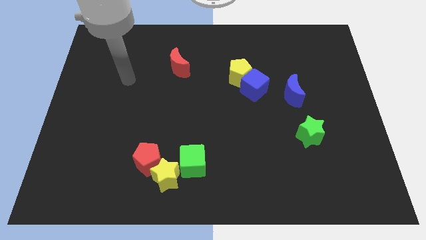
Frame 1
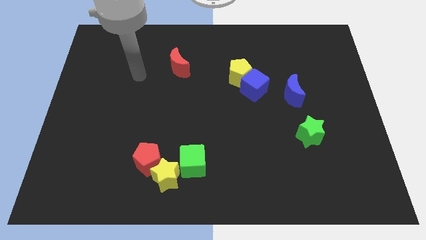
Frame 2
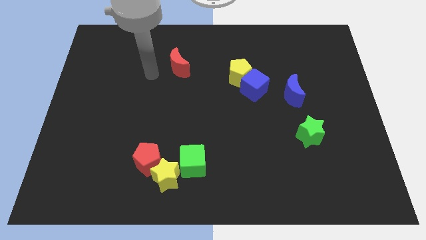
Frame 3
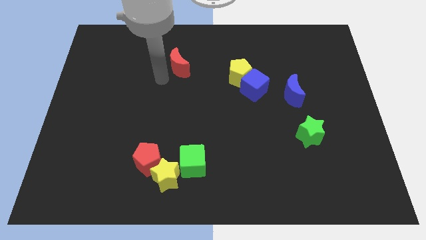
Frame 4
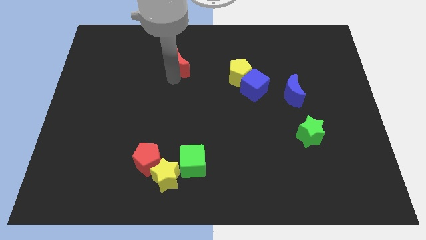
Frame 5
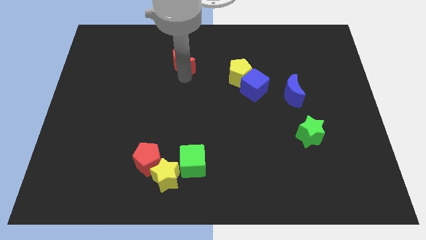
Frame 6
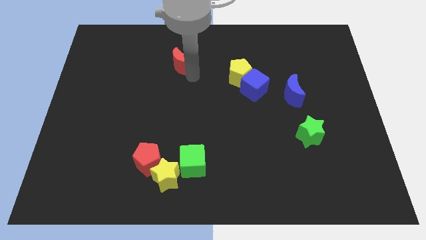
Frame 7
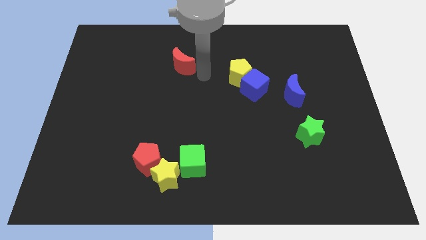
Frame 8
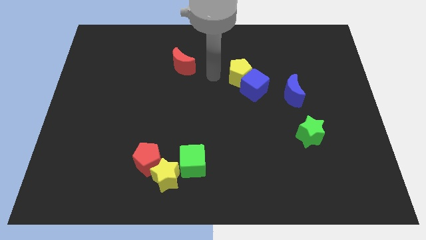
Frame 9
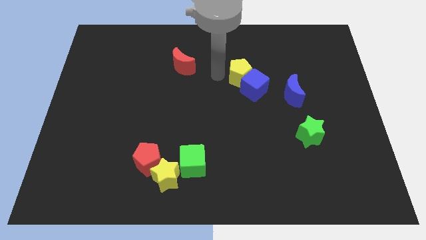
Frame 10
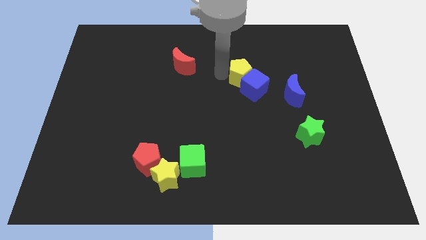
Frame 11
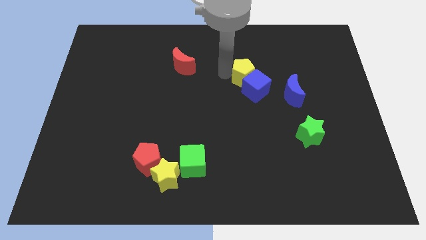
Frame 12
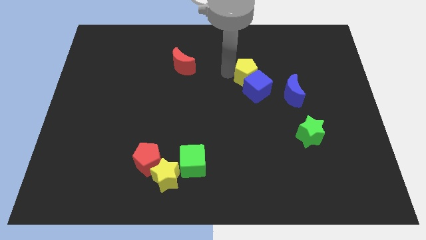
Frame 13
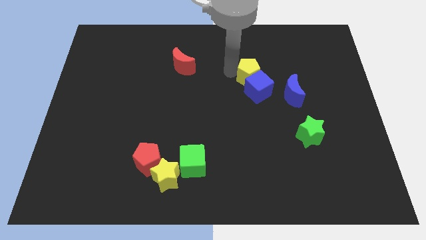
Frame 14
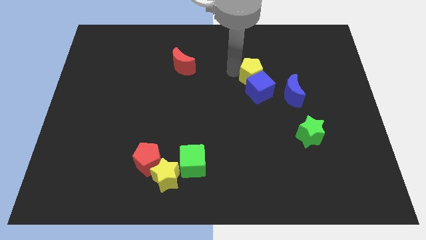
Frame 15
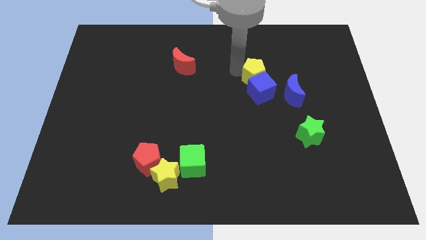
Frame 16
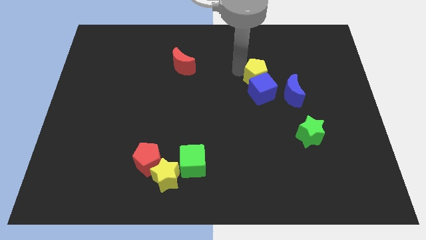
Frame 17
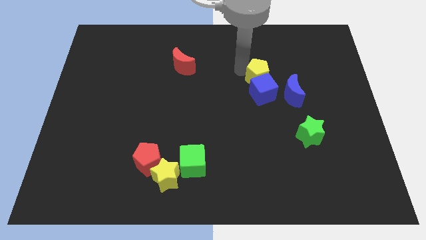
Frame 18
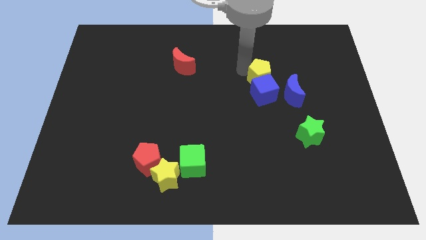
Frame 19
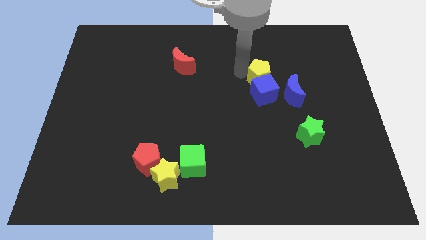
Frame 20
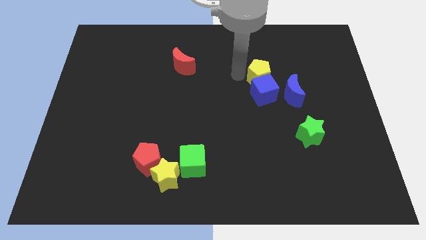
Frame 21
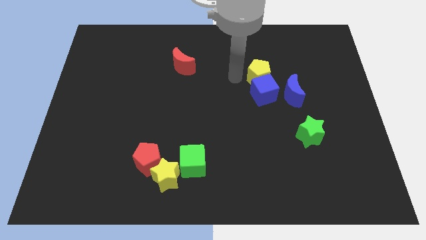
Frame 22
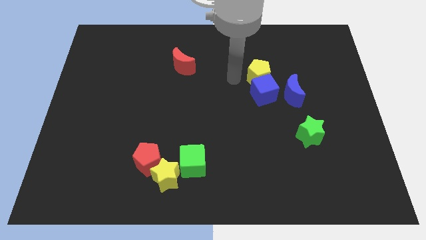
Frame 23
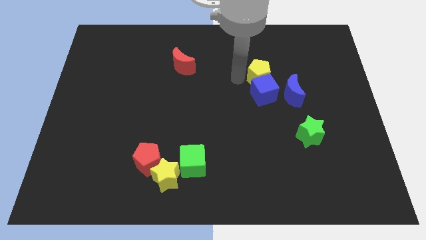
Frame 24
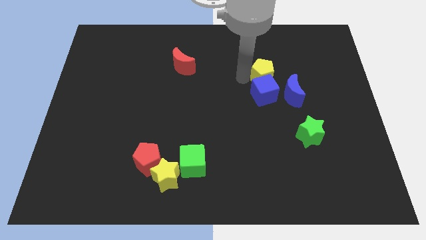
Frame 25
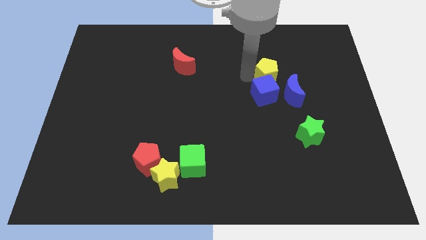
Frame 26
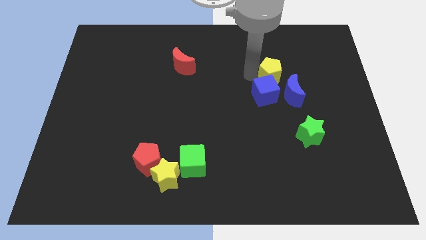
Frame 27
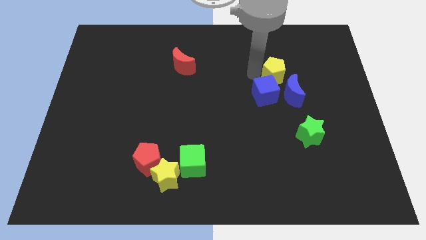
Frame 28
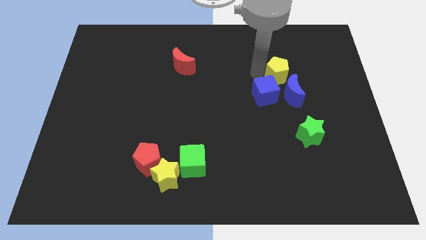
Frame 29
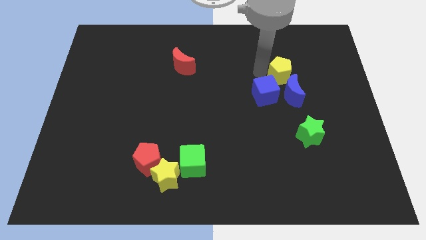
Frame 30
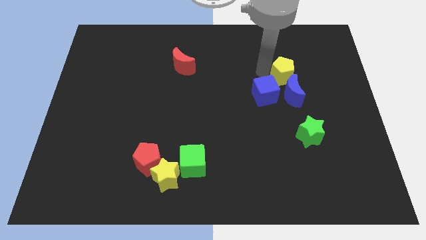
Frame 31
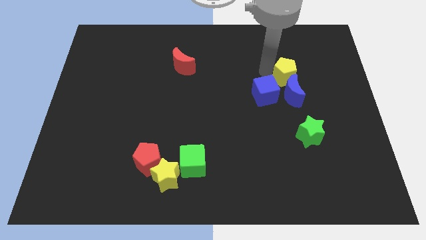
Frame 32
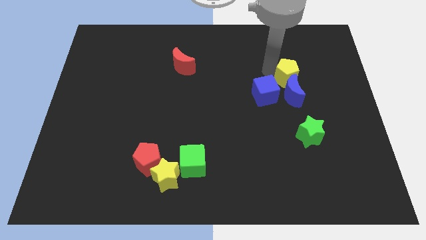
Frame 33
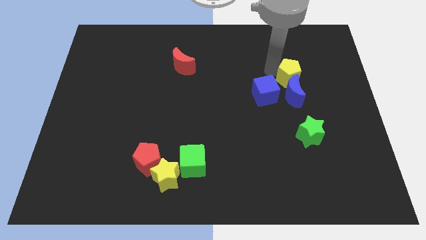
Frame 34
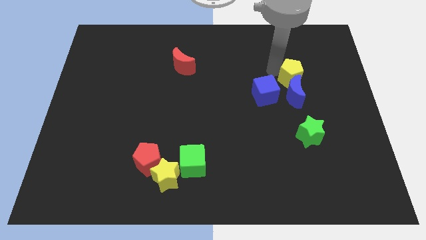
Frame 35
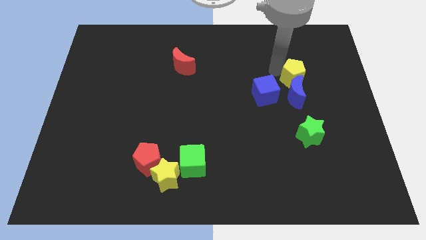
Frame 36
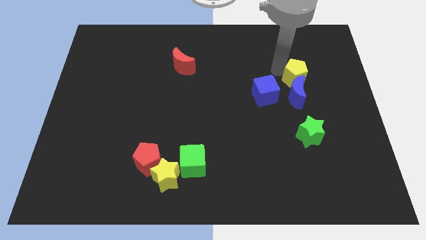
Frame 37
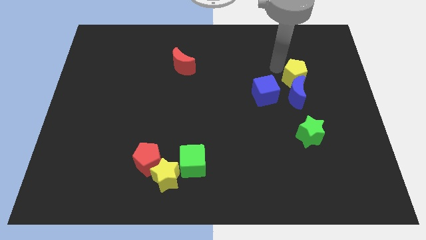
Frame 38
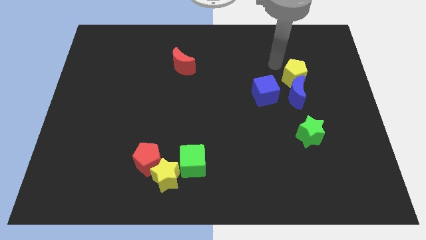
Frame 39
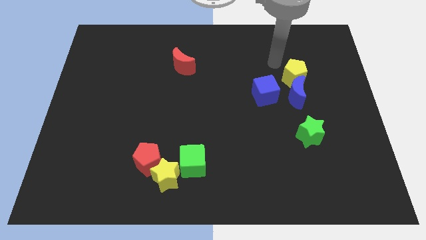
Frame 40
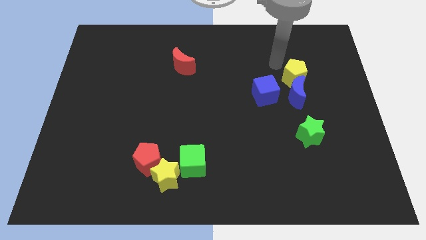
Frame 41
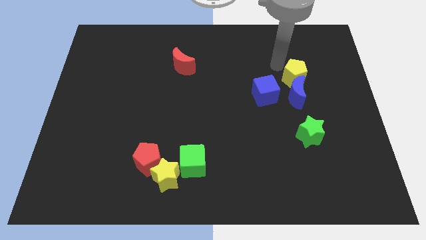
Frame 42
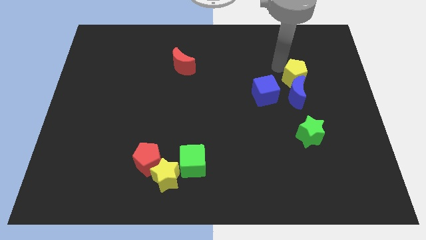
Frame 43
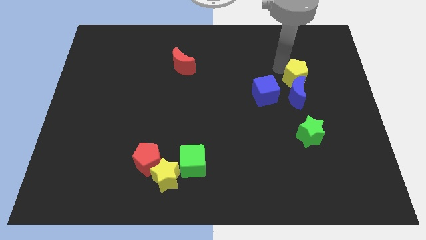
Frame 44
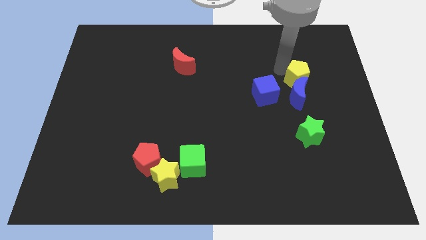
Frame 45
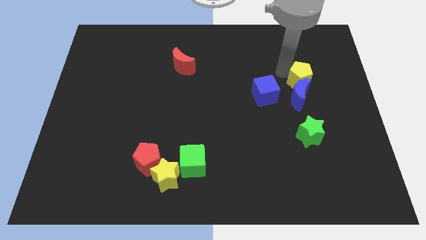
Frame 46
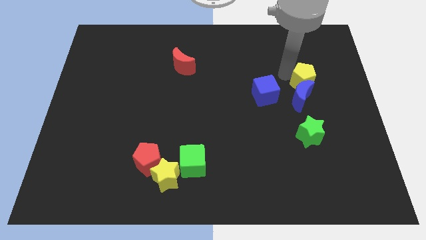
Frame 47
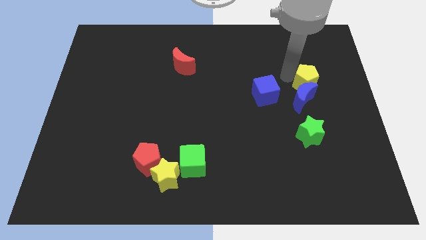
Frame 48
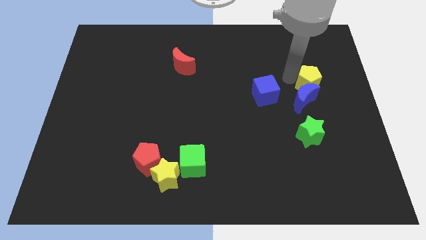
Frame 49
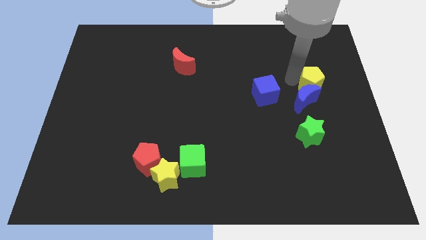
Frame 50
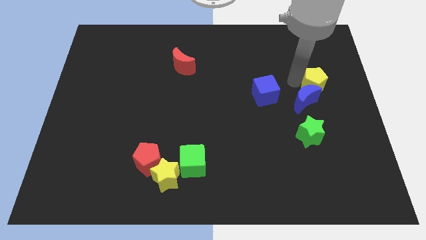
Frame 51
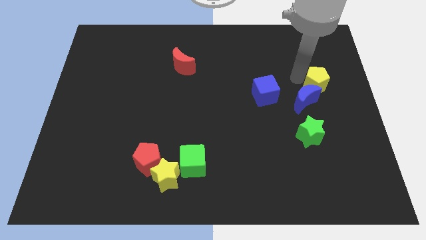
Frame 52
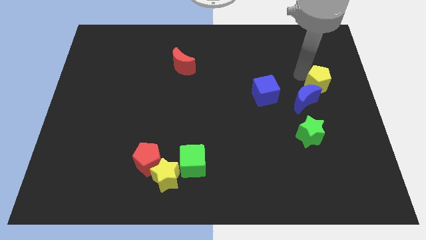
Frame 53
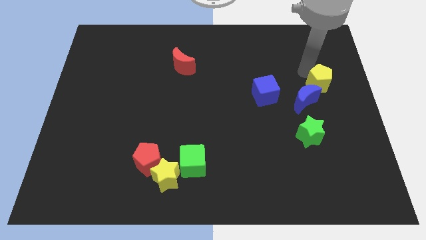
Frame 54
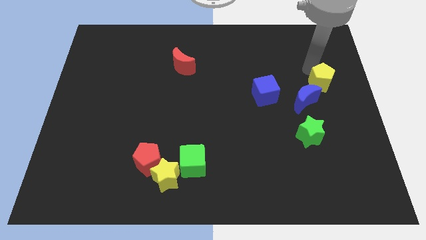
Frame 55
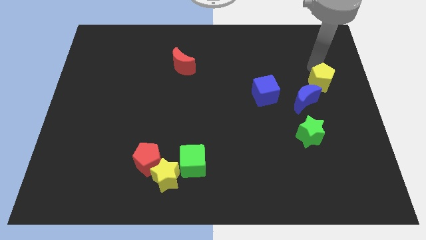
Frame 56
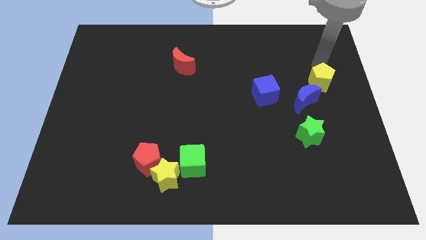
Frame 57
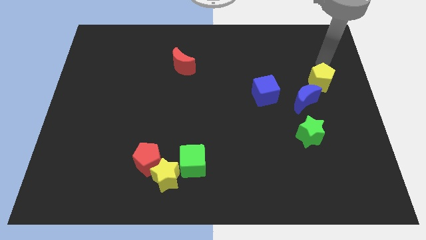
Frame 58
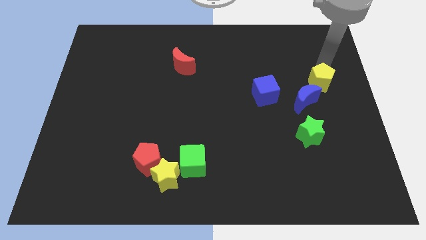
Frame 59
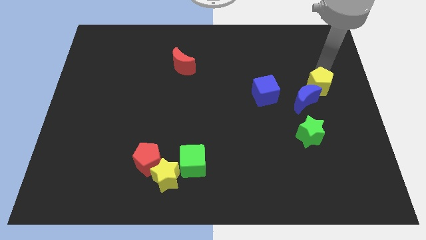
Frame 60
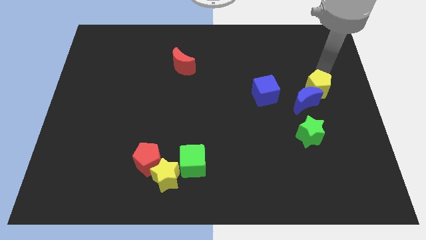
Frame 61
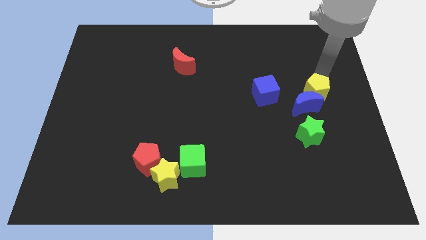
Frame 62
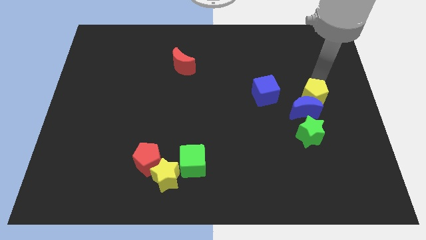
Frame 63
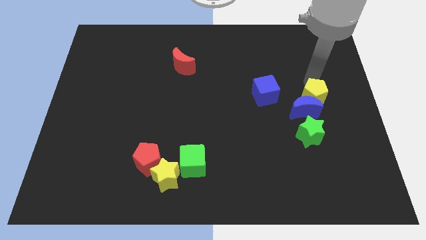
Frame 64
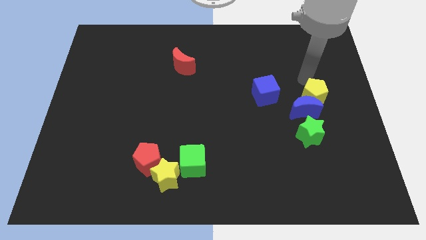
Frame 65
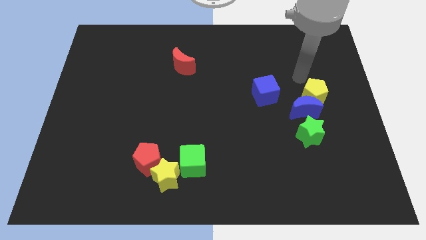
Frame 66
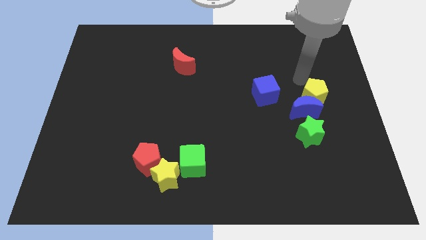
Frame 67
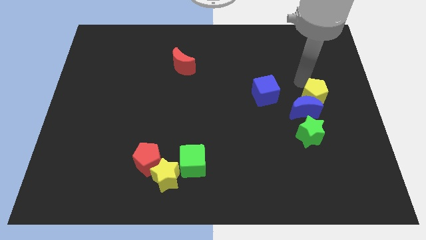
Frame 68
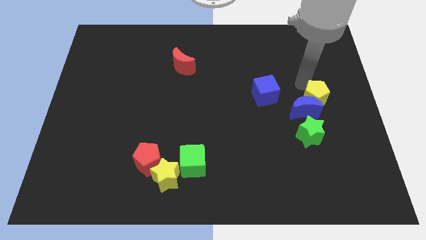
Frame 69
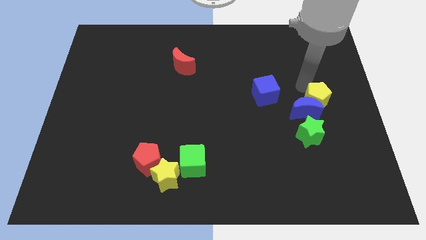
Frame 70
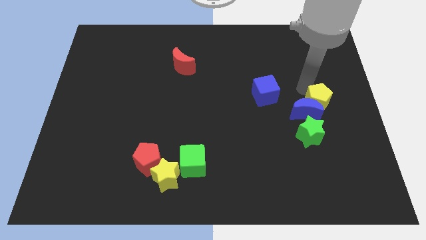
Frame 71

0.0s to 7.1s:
move the yellow pentagon to the top right side of the green star
